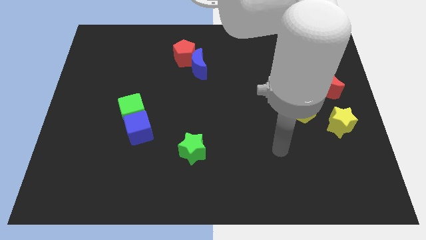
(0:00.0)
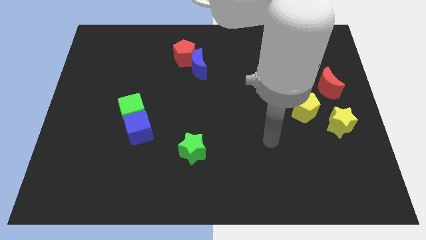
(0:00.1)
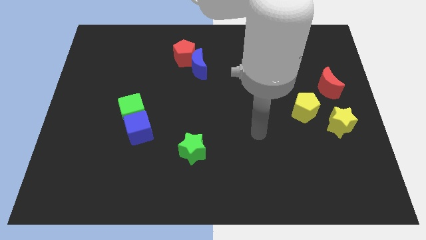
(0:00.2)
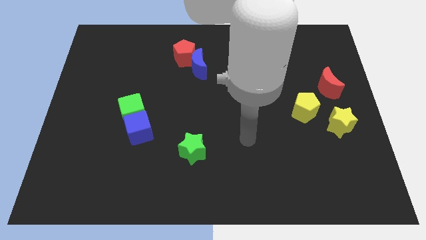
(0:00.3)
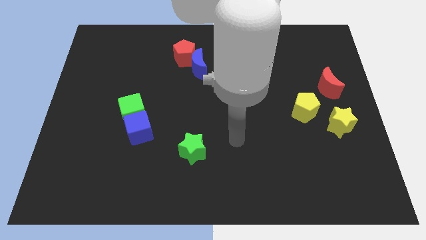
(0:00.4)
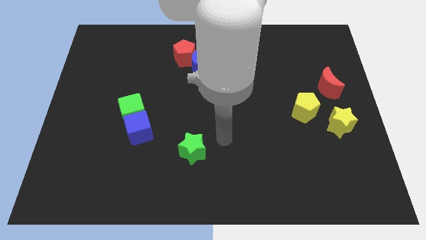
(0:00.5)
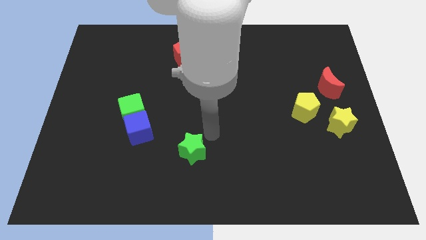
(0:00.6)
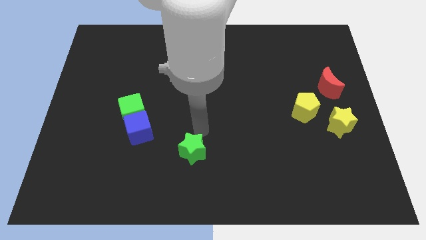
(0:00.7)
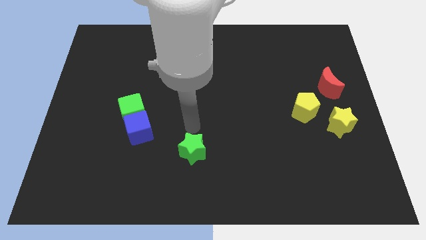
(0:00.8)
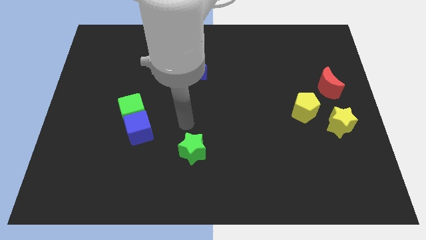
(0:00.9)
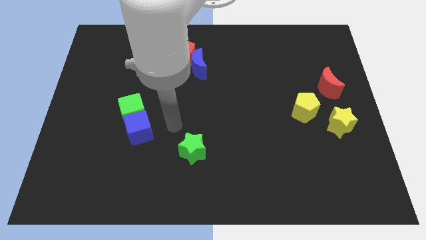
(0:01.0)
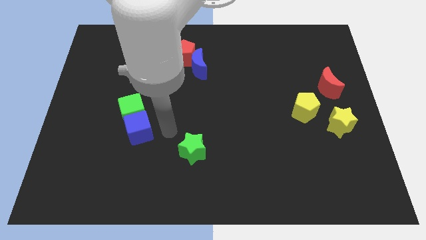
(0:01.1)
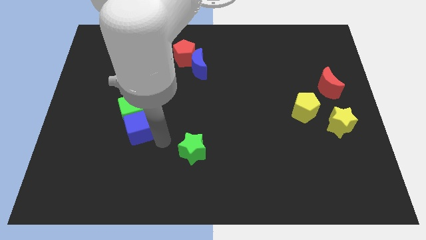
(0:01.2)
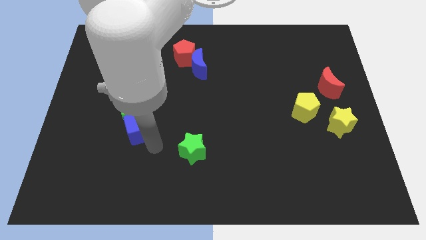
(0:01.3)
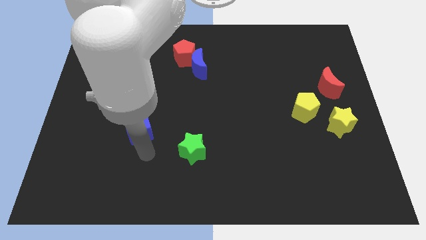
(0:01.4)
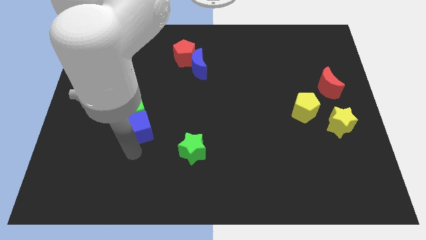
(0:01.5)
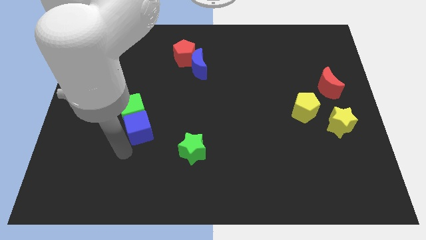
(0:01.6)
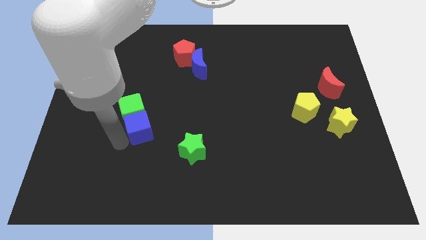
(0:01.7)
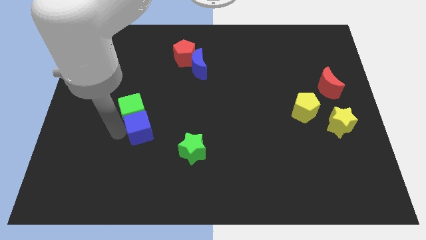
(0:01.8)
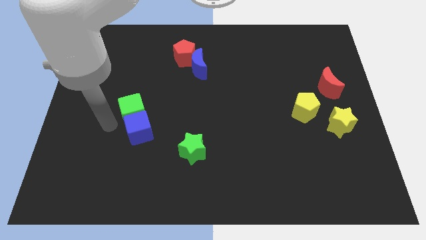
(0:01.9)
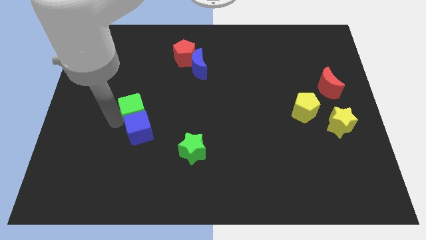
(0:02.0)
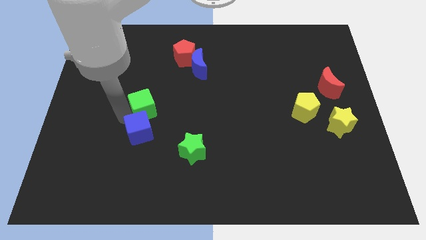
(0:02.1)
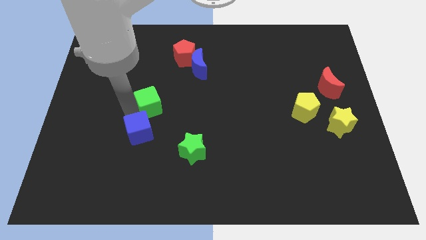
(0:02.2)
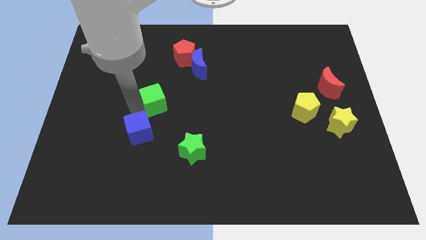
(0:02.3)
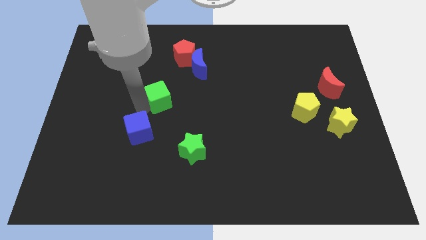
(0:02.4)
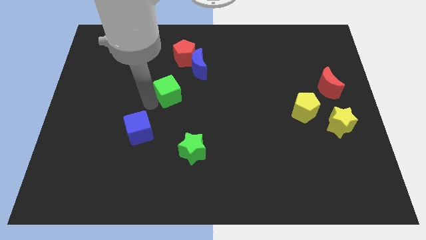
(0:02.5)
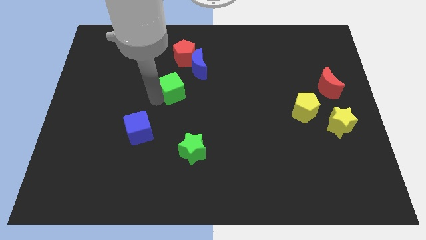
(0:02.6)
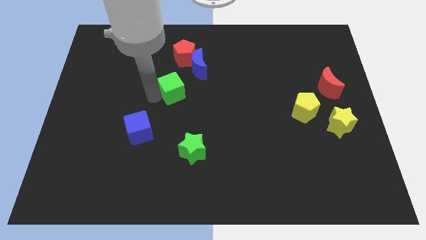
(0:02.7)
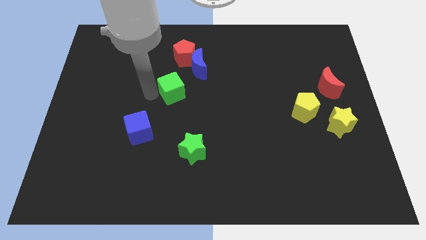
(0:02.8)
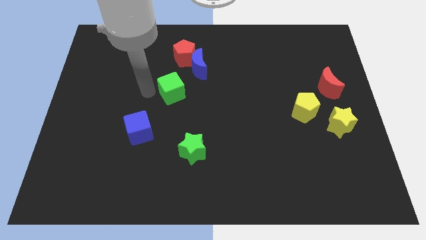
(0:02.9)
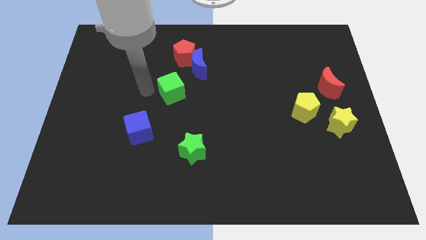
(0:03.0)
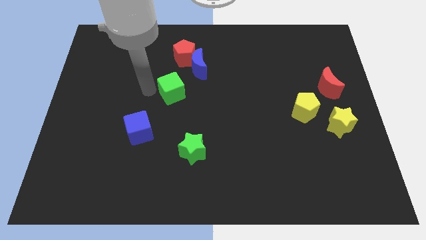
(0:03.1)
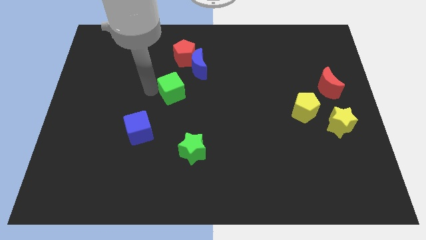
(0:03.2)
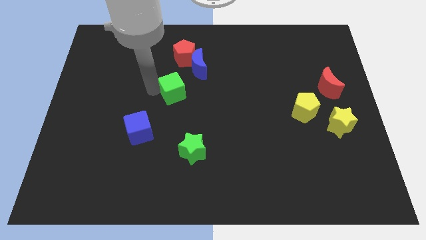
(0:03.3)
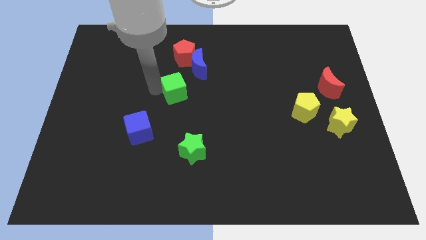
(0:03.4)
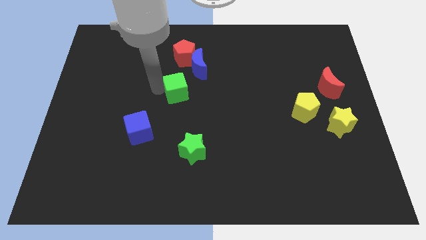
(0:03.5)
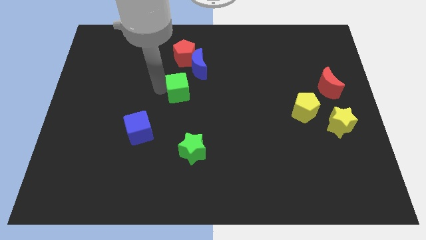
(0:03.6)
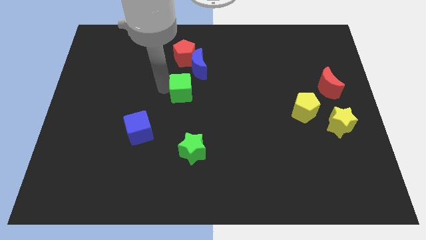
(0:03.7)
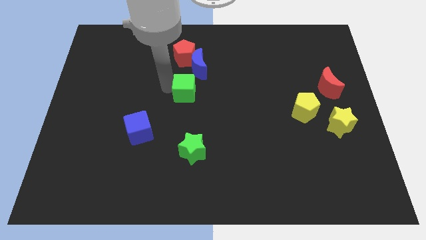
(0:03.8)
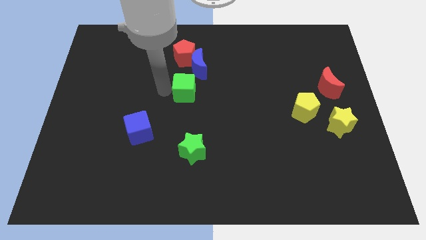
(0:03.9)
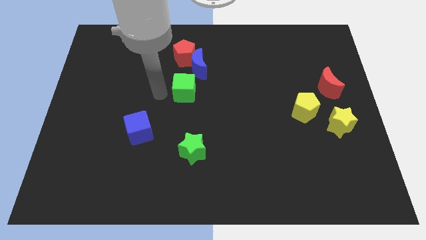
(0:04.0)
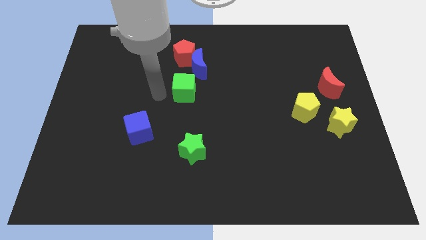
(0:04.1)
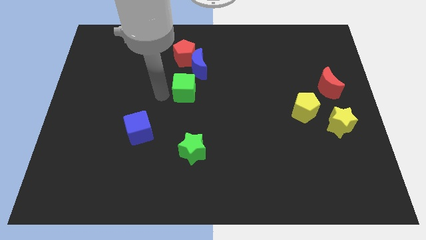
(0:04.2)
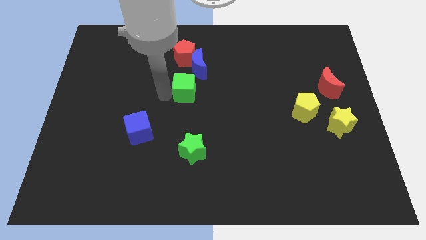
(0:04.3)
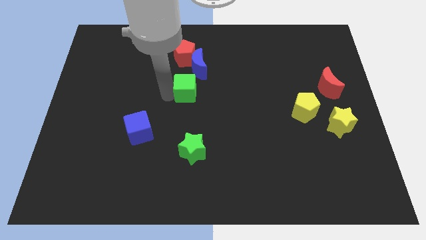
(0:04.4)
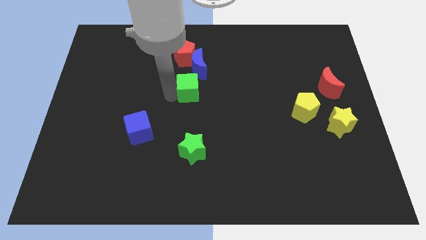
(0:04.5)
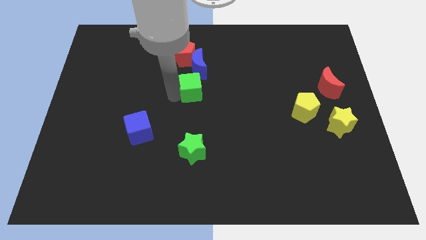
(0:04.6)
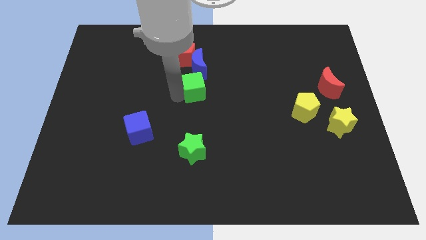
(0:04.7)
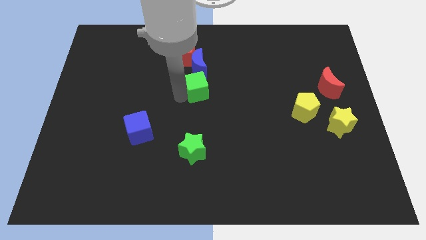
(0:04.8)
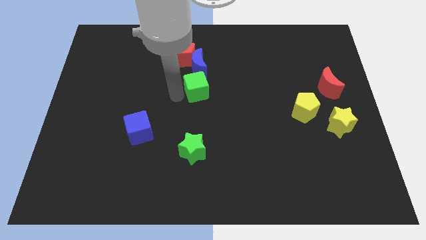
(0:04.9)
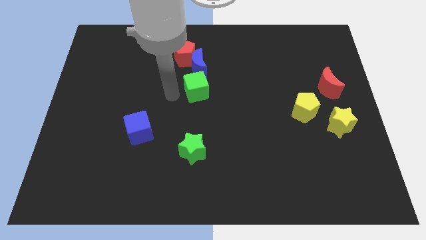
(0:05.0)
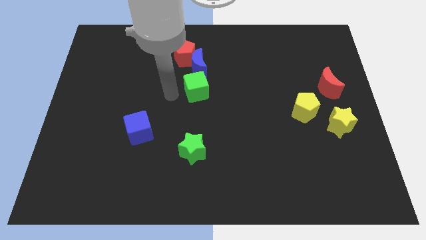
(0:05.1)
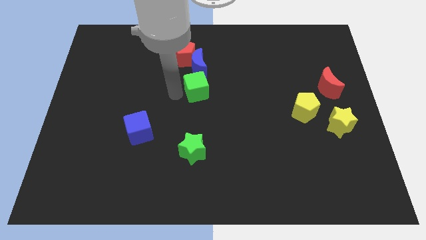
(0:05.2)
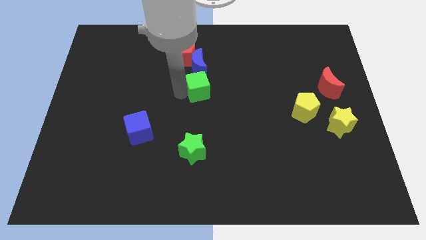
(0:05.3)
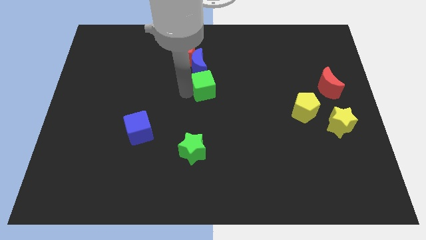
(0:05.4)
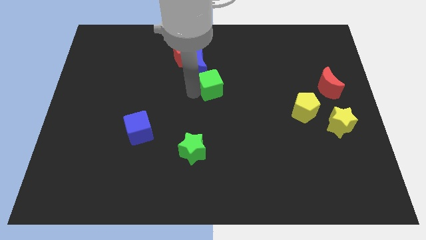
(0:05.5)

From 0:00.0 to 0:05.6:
put the green cube diagonally down and to the right of the red pentagon

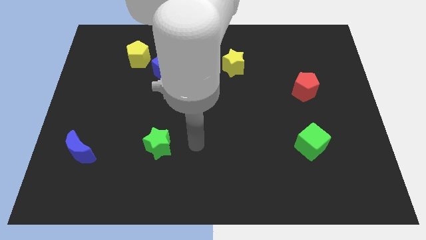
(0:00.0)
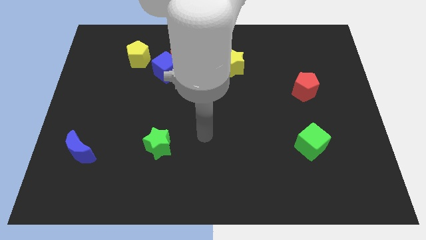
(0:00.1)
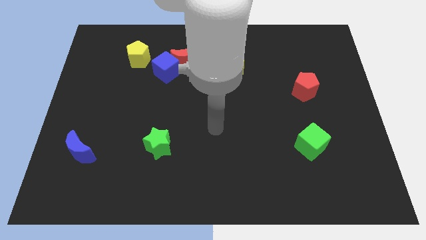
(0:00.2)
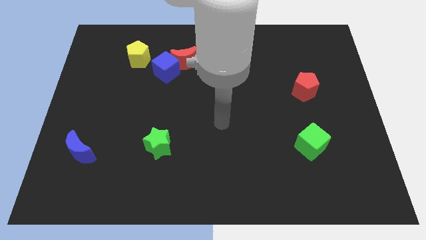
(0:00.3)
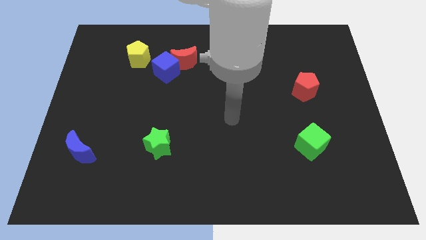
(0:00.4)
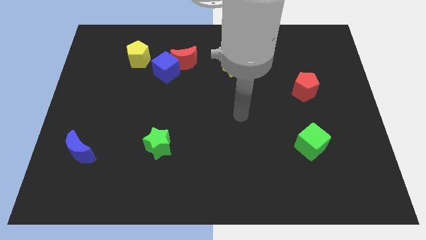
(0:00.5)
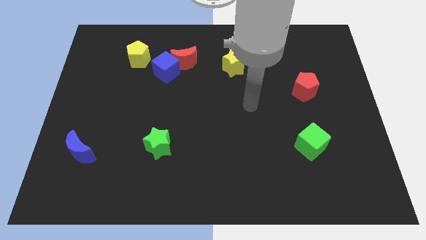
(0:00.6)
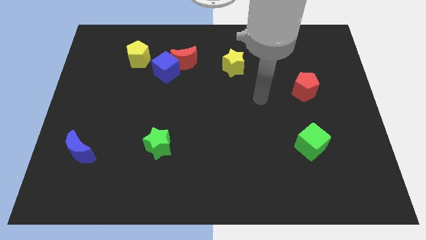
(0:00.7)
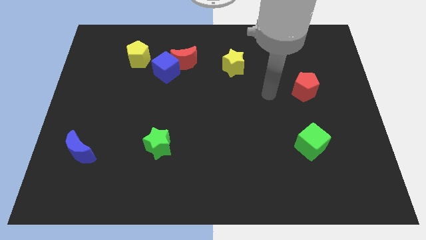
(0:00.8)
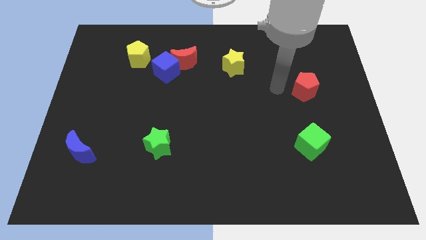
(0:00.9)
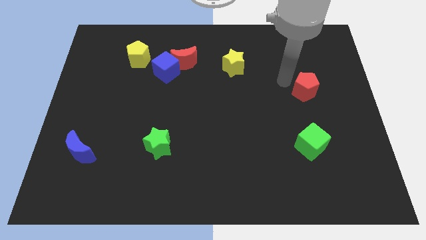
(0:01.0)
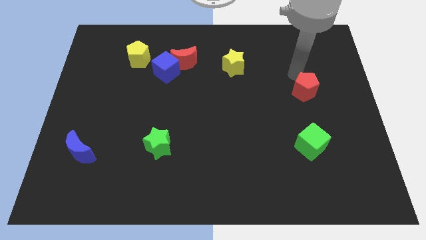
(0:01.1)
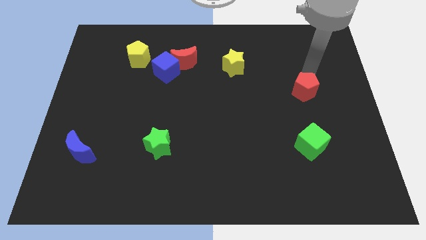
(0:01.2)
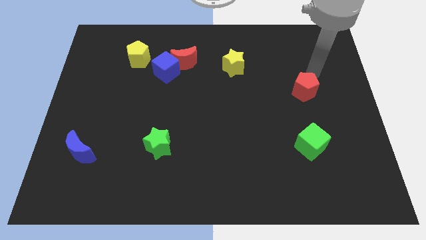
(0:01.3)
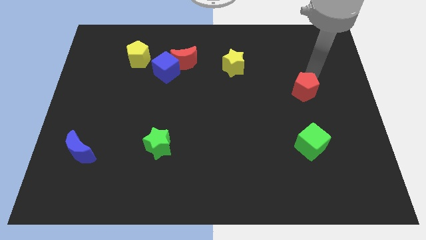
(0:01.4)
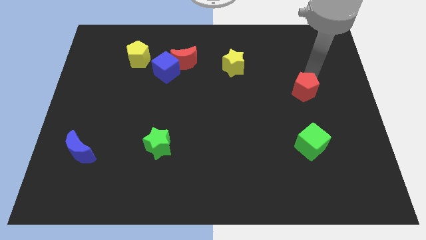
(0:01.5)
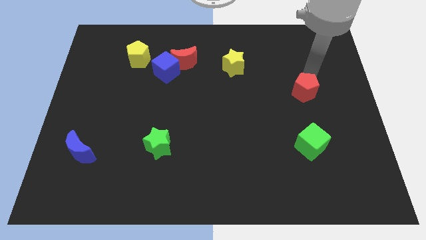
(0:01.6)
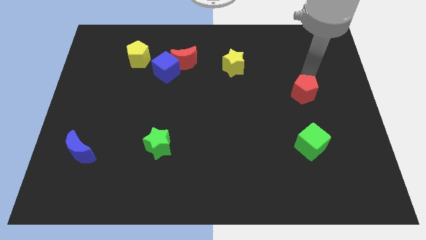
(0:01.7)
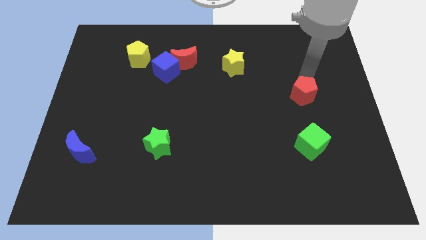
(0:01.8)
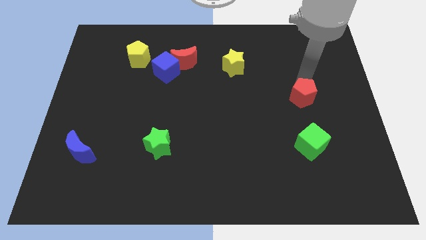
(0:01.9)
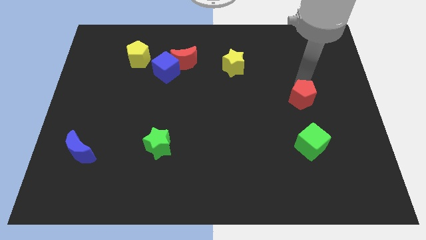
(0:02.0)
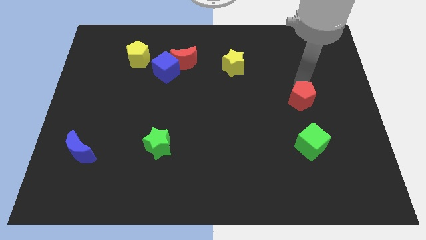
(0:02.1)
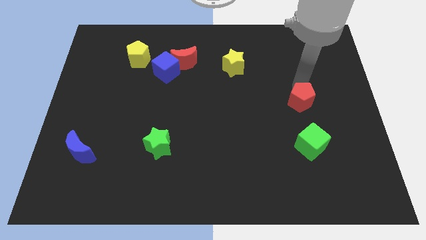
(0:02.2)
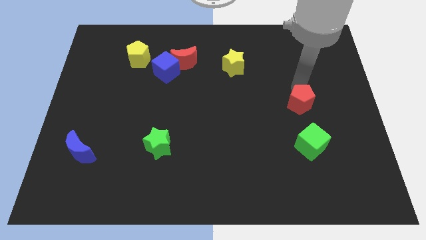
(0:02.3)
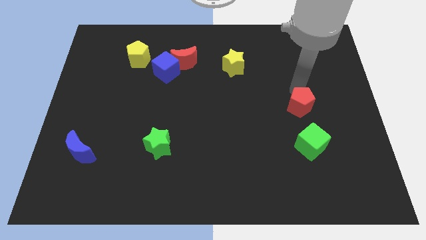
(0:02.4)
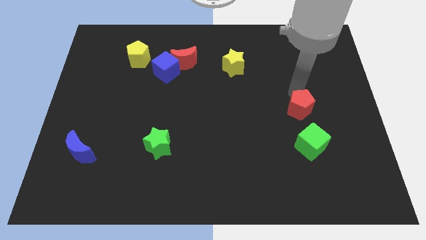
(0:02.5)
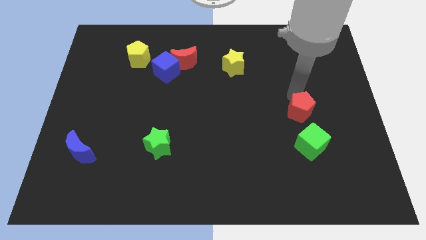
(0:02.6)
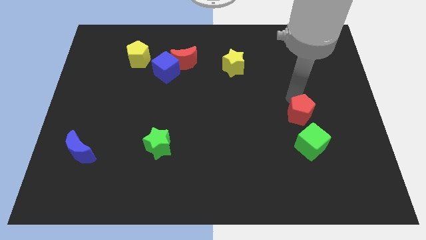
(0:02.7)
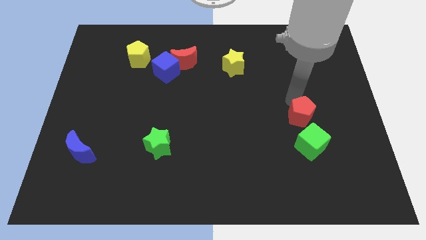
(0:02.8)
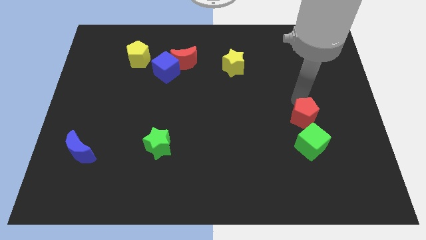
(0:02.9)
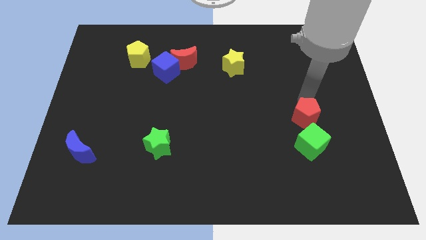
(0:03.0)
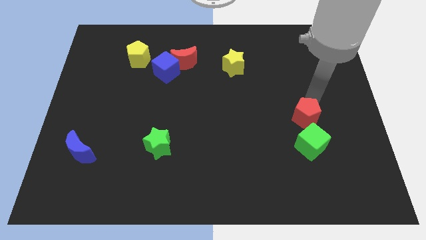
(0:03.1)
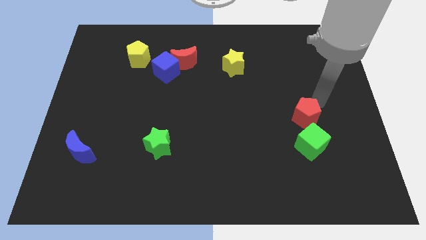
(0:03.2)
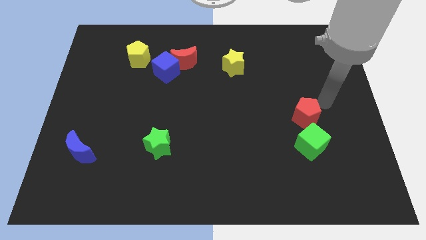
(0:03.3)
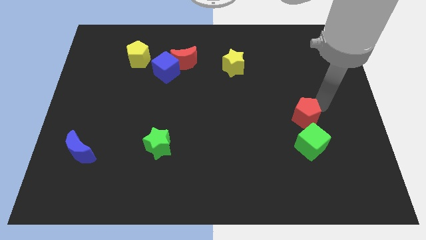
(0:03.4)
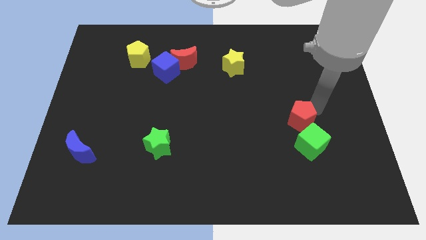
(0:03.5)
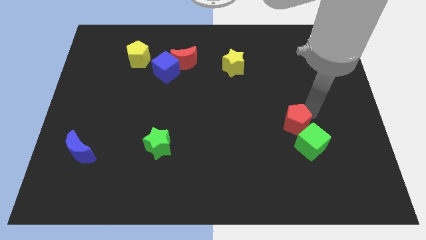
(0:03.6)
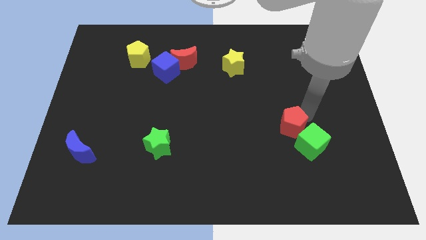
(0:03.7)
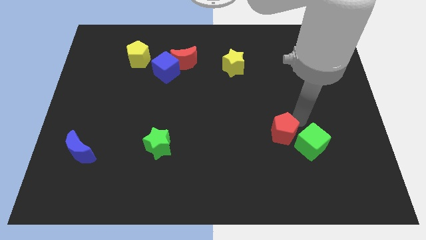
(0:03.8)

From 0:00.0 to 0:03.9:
slide the red pentagon just left of the green cube
